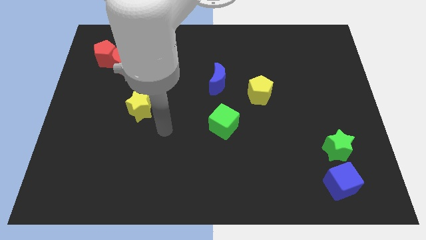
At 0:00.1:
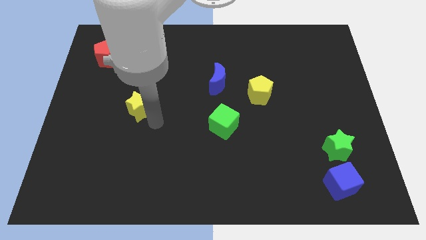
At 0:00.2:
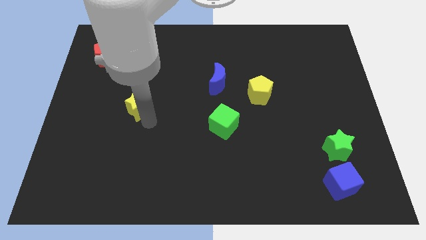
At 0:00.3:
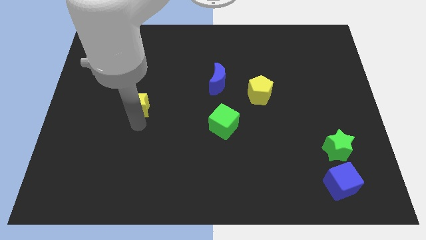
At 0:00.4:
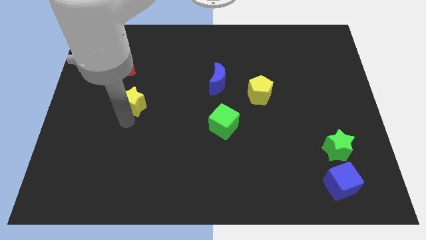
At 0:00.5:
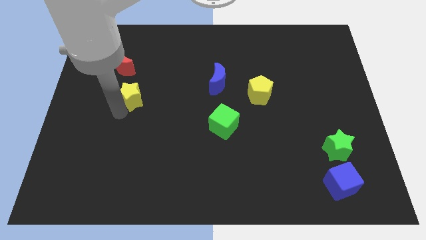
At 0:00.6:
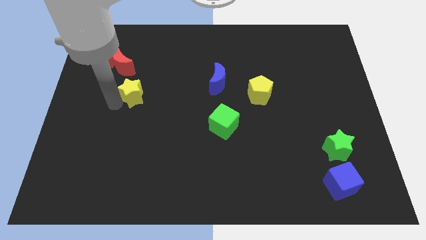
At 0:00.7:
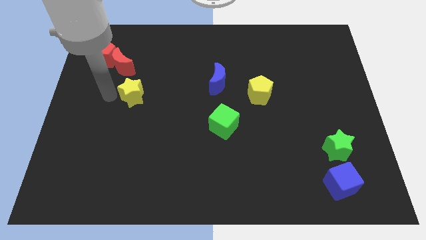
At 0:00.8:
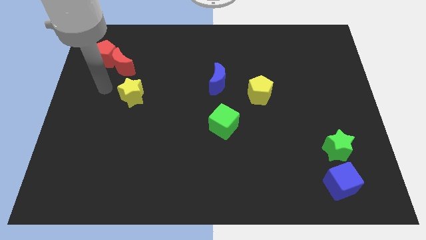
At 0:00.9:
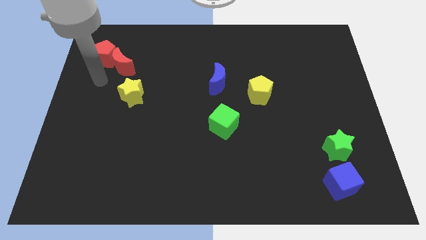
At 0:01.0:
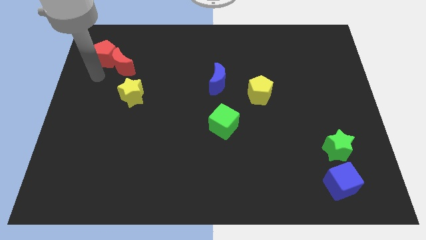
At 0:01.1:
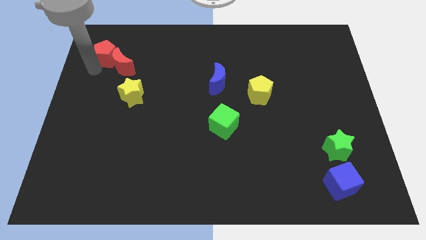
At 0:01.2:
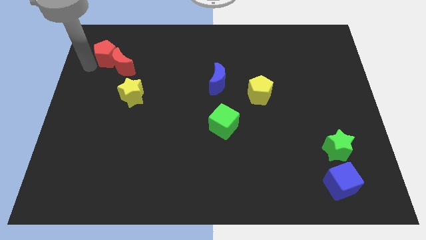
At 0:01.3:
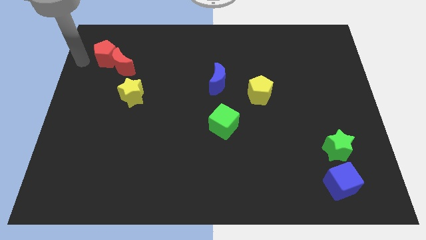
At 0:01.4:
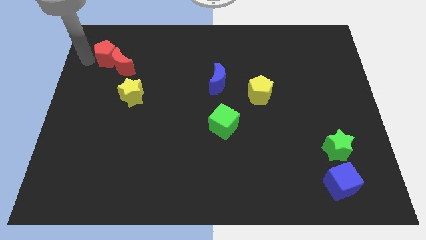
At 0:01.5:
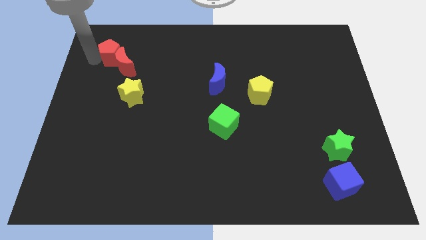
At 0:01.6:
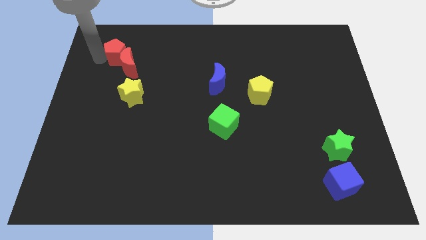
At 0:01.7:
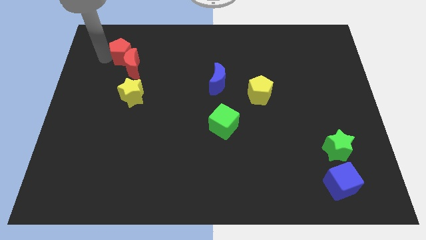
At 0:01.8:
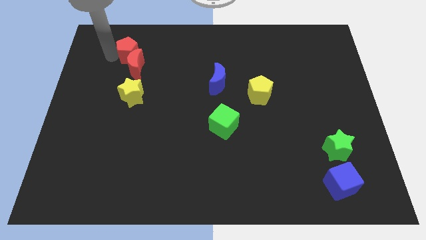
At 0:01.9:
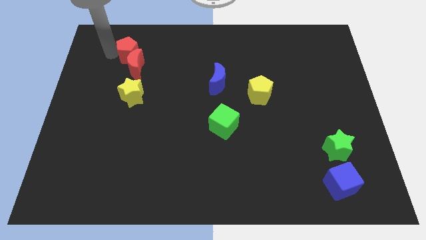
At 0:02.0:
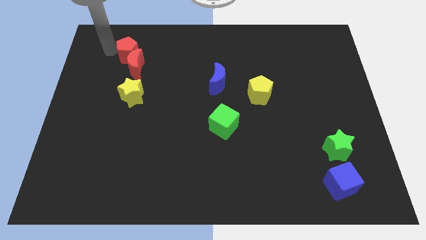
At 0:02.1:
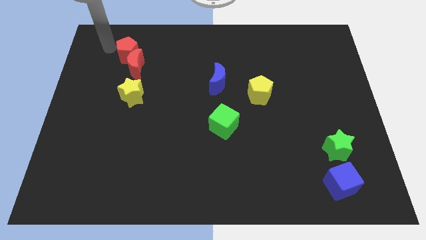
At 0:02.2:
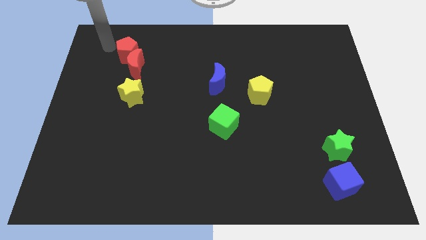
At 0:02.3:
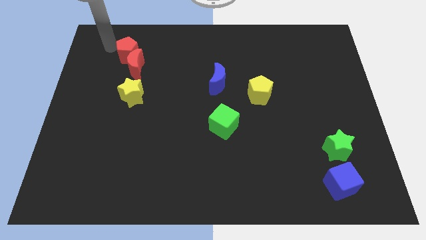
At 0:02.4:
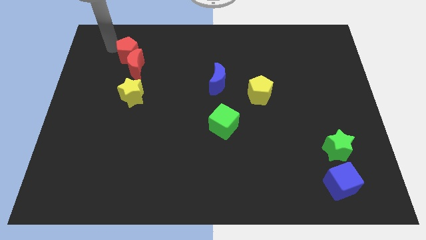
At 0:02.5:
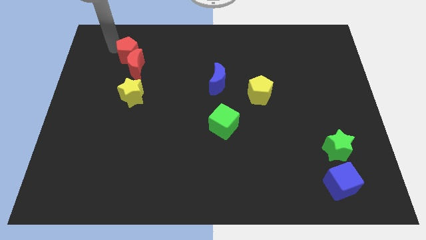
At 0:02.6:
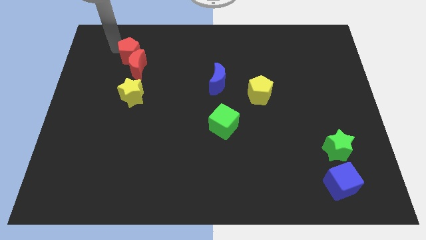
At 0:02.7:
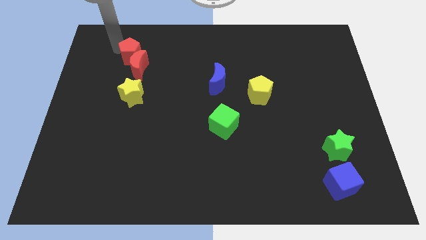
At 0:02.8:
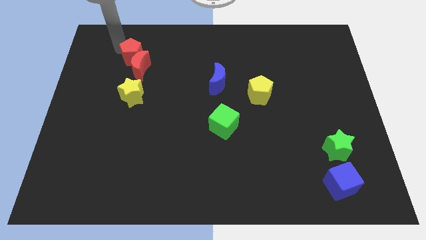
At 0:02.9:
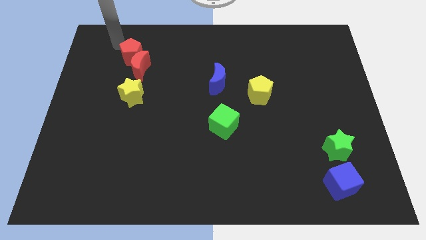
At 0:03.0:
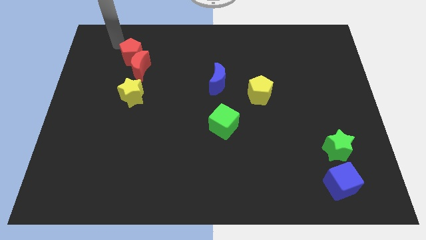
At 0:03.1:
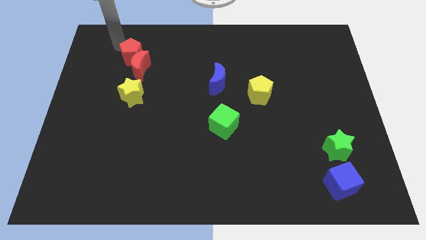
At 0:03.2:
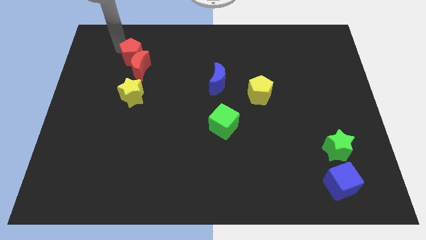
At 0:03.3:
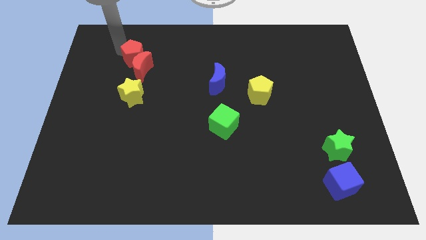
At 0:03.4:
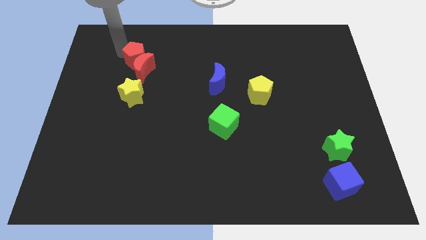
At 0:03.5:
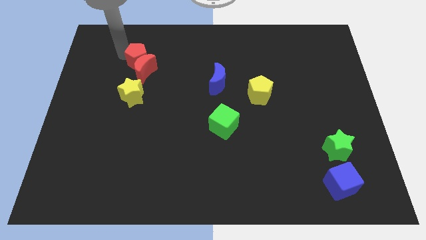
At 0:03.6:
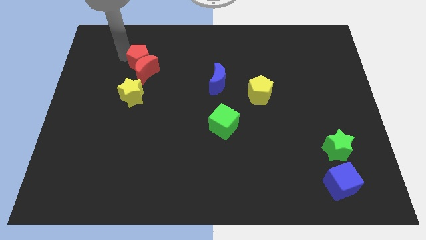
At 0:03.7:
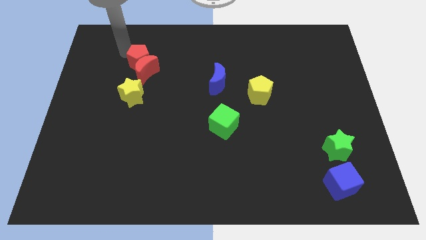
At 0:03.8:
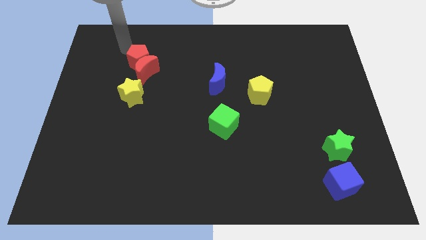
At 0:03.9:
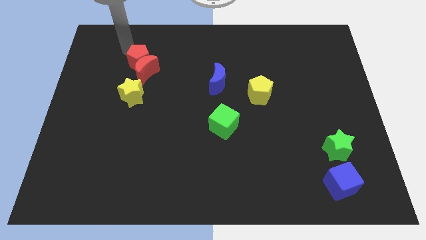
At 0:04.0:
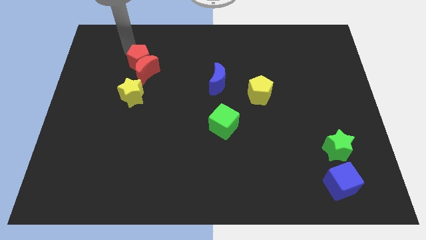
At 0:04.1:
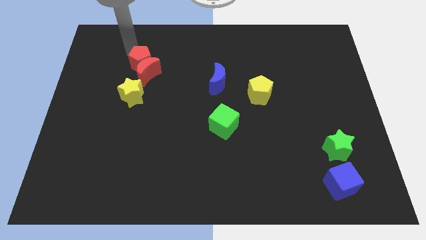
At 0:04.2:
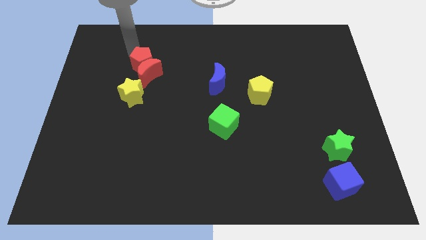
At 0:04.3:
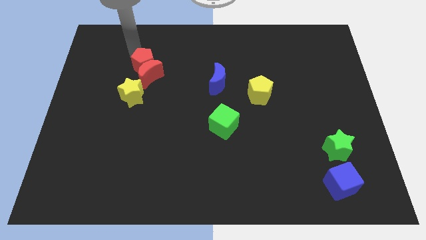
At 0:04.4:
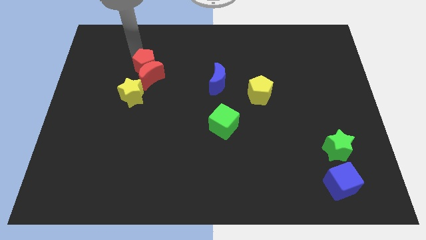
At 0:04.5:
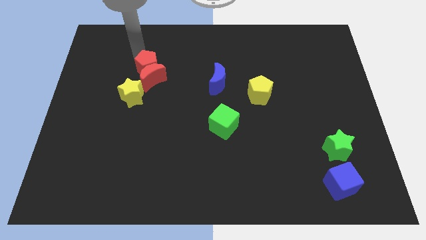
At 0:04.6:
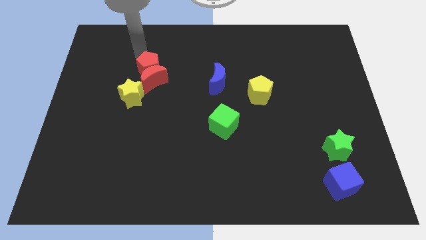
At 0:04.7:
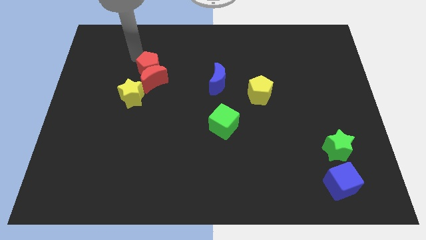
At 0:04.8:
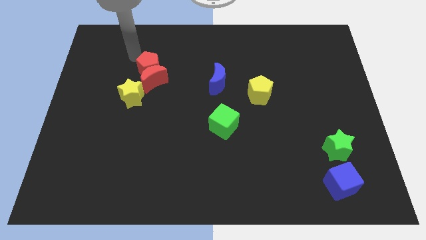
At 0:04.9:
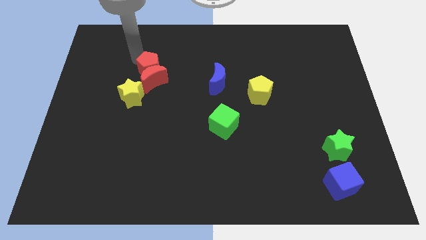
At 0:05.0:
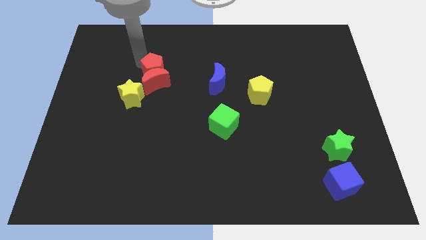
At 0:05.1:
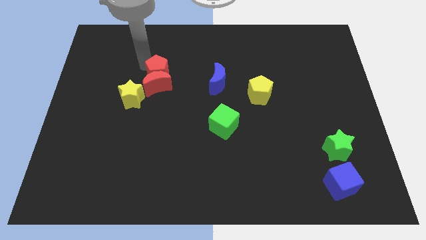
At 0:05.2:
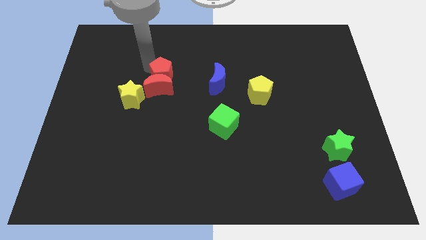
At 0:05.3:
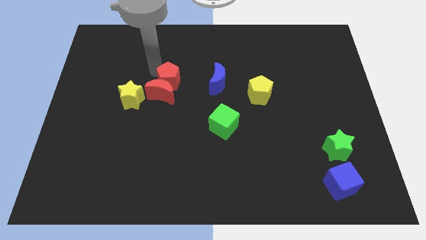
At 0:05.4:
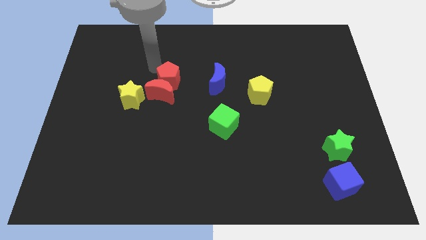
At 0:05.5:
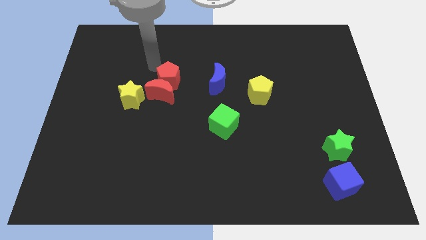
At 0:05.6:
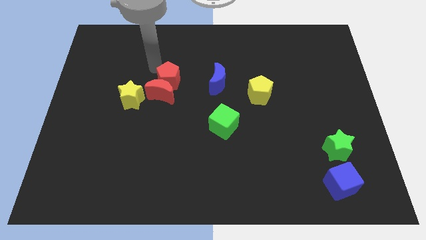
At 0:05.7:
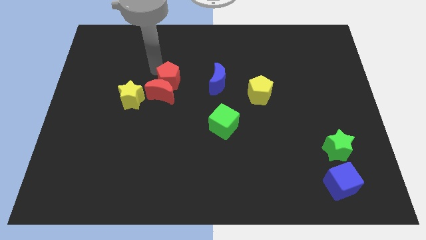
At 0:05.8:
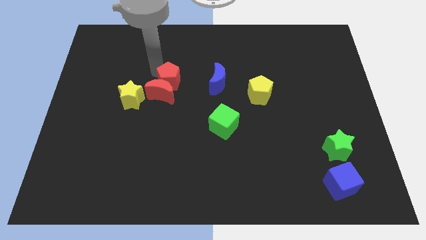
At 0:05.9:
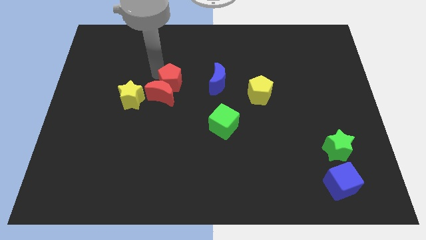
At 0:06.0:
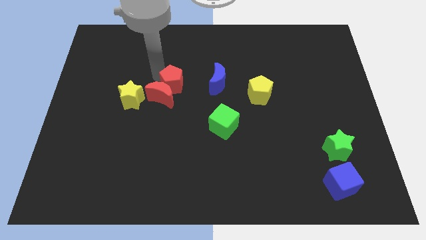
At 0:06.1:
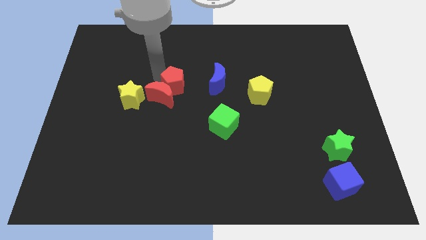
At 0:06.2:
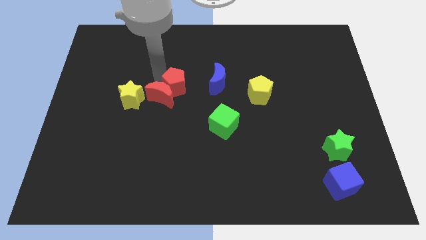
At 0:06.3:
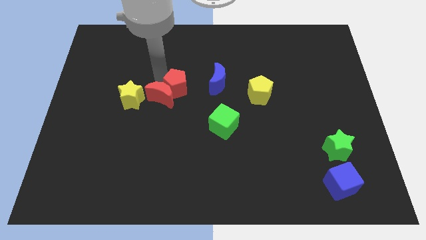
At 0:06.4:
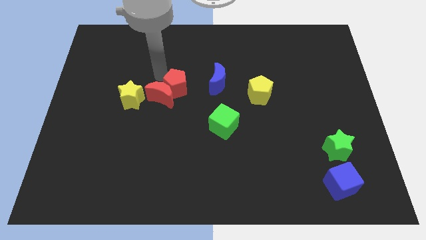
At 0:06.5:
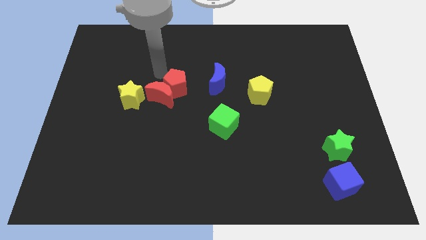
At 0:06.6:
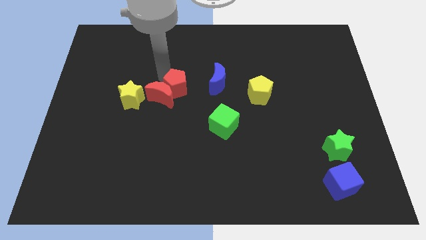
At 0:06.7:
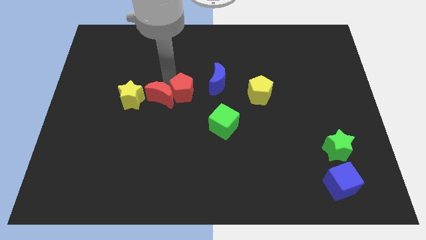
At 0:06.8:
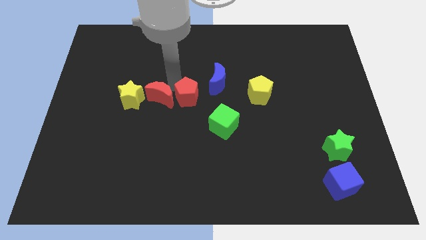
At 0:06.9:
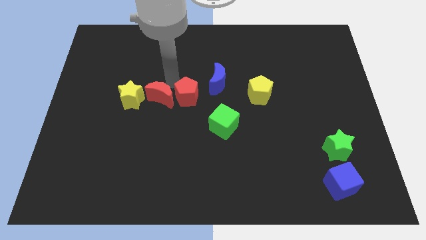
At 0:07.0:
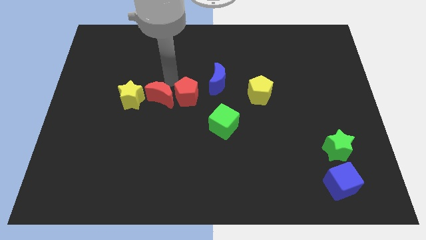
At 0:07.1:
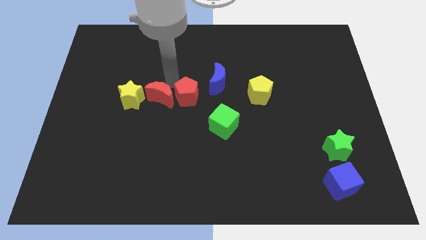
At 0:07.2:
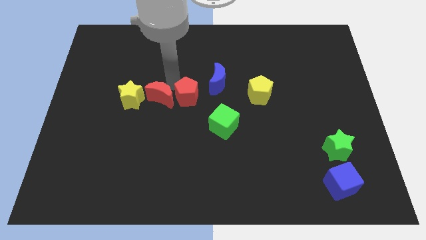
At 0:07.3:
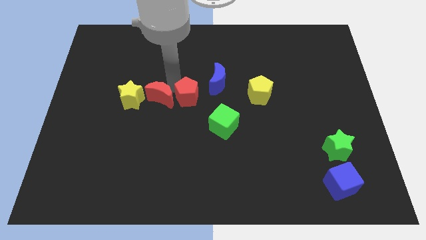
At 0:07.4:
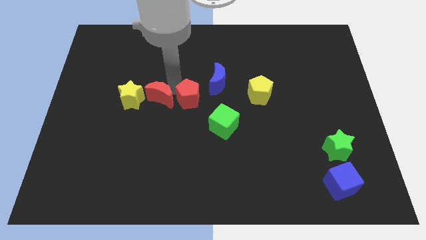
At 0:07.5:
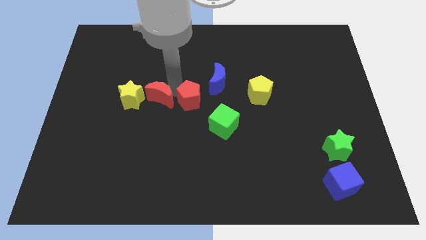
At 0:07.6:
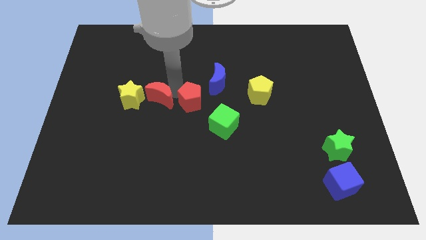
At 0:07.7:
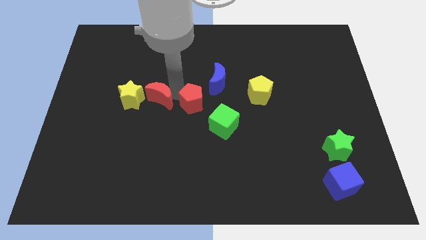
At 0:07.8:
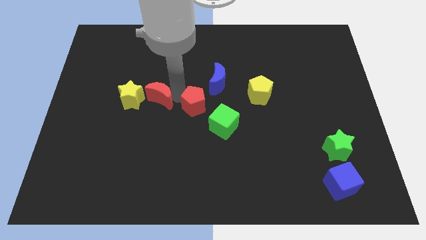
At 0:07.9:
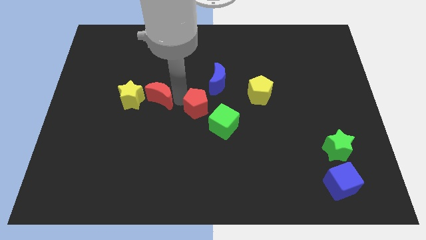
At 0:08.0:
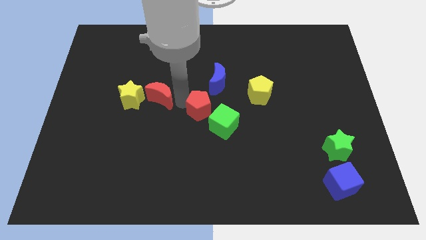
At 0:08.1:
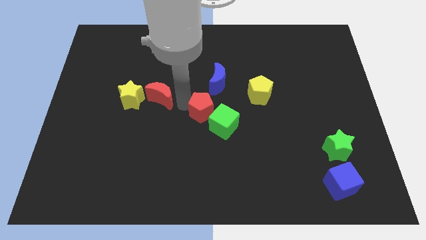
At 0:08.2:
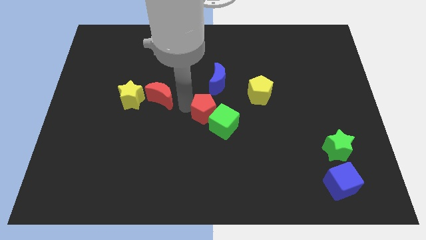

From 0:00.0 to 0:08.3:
move the red pentagon close to the green cube
